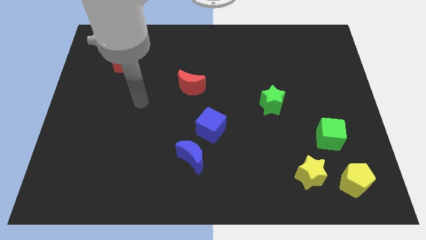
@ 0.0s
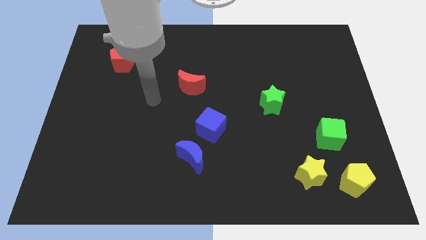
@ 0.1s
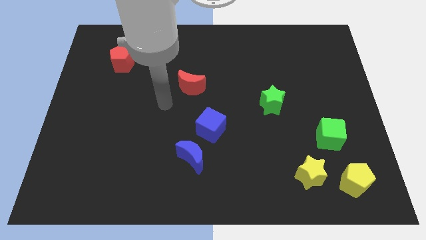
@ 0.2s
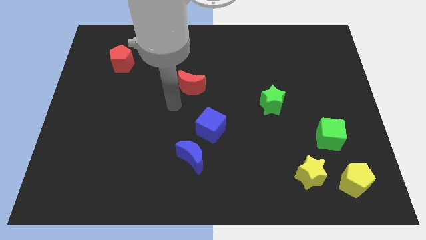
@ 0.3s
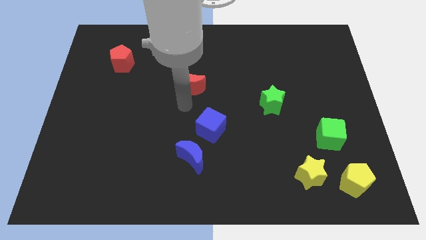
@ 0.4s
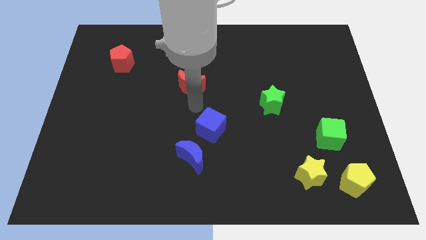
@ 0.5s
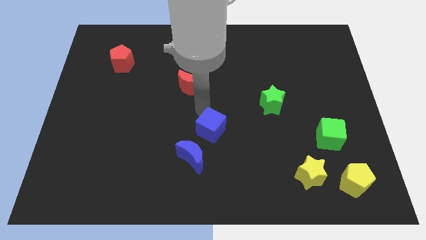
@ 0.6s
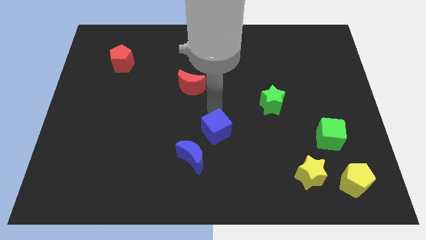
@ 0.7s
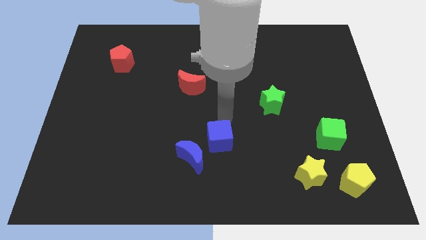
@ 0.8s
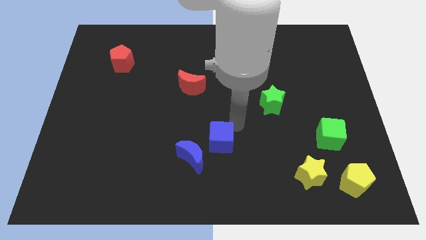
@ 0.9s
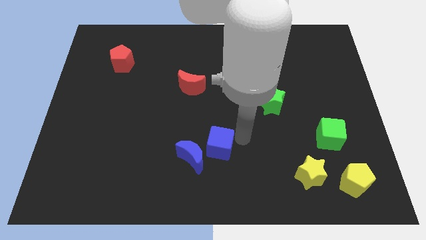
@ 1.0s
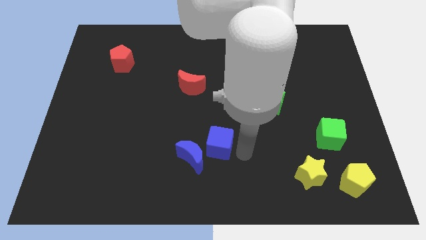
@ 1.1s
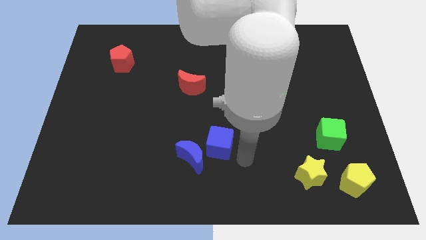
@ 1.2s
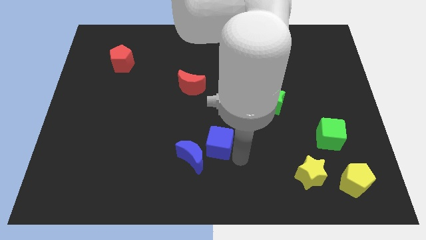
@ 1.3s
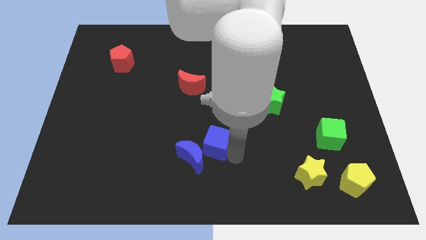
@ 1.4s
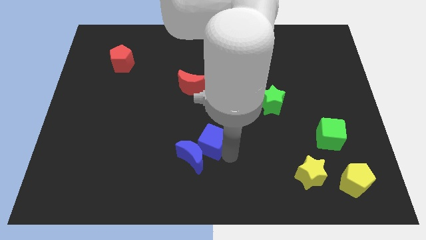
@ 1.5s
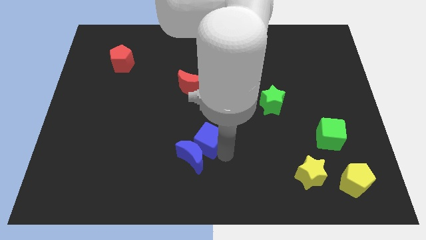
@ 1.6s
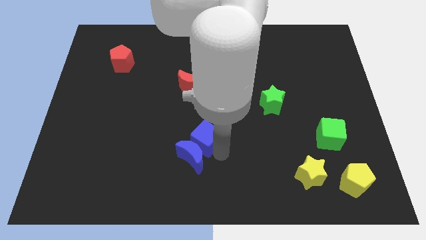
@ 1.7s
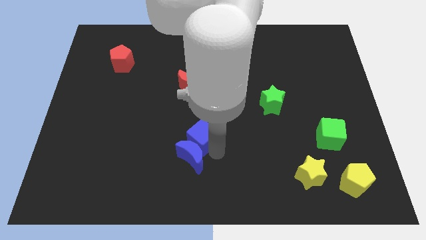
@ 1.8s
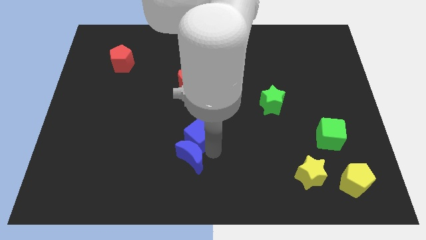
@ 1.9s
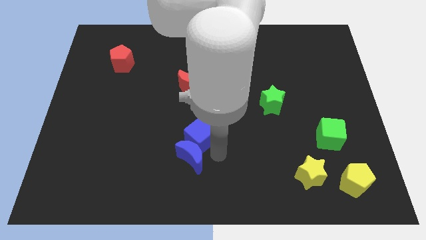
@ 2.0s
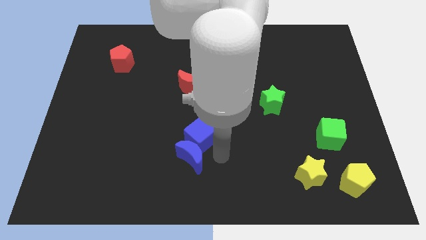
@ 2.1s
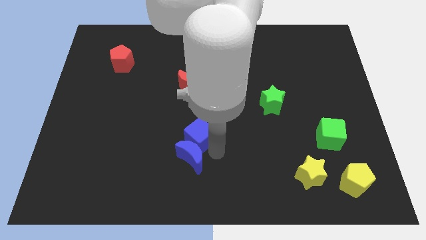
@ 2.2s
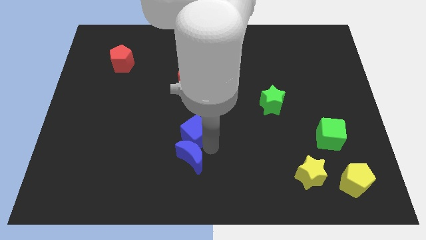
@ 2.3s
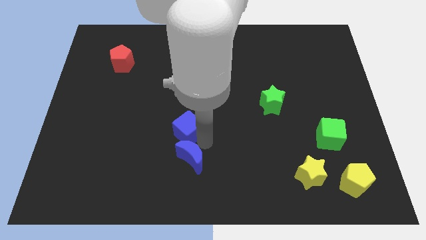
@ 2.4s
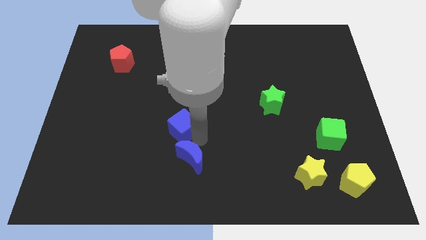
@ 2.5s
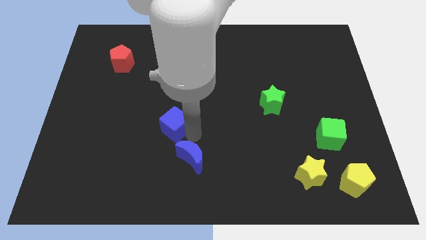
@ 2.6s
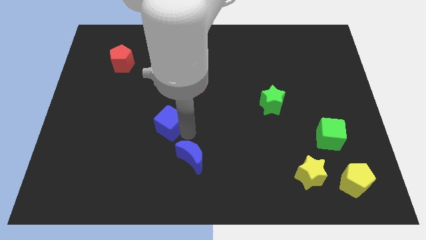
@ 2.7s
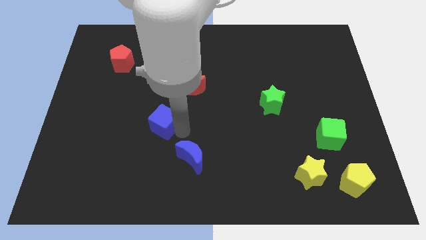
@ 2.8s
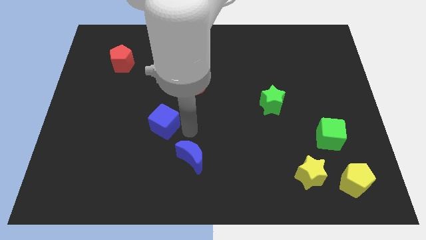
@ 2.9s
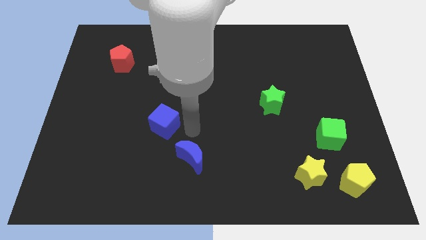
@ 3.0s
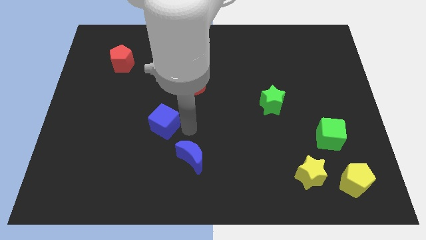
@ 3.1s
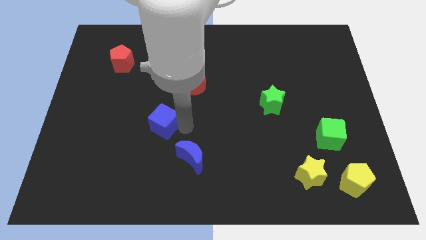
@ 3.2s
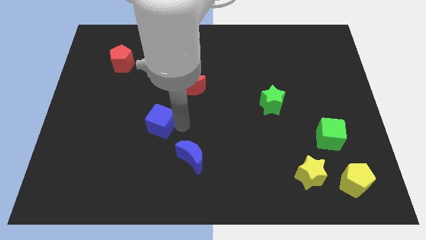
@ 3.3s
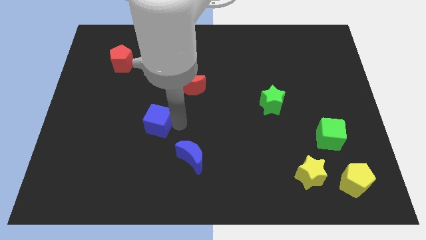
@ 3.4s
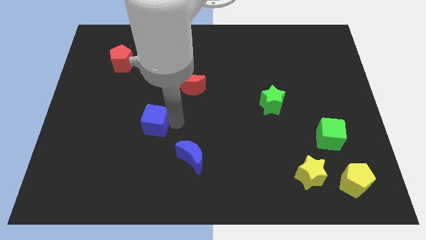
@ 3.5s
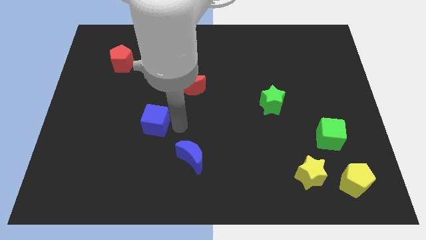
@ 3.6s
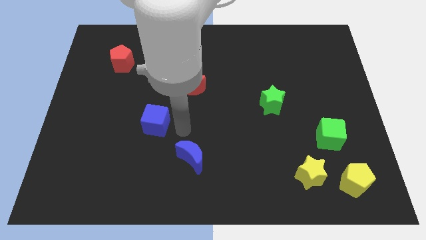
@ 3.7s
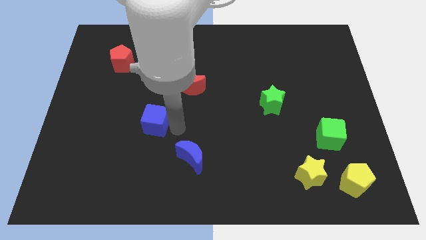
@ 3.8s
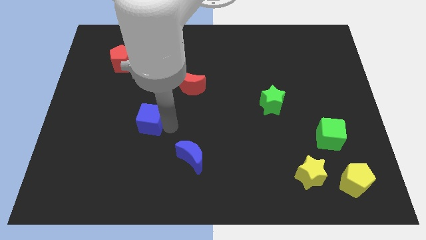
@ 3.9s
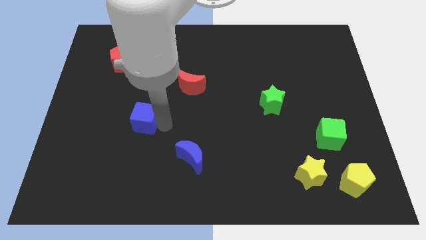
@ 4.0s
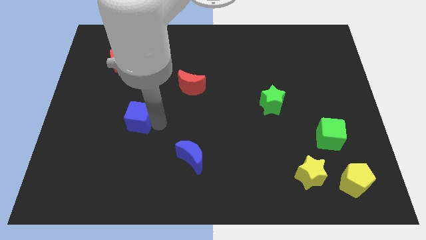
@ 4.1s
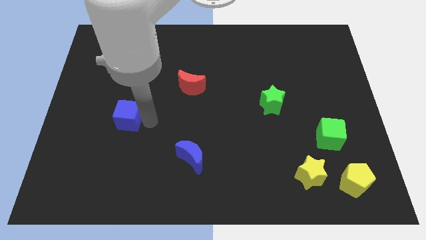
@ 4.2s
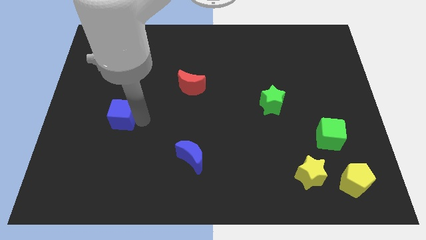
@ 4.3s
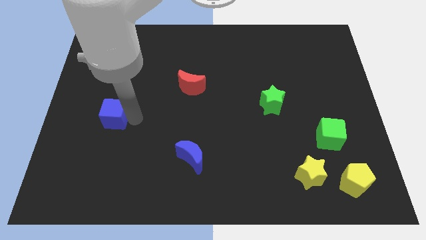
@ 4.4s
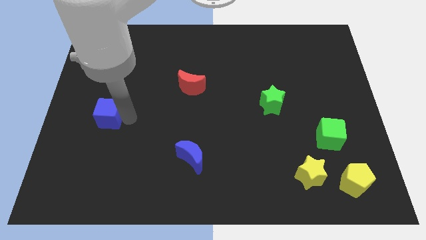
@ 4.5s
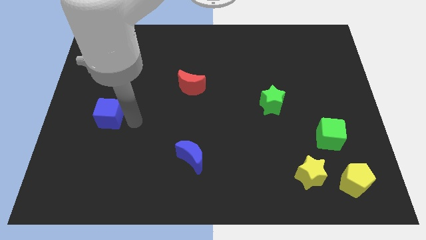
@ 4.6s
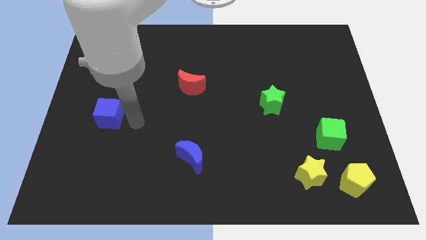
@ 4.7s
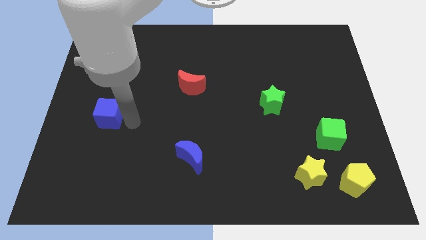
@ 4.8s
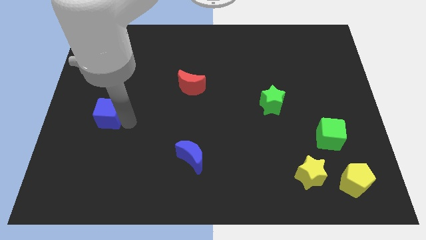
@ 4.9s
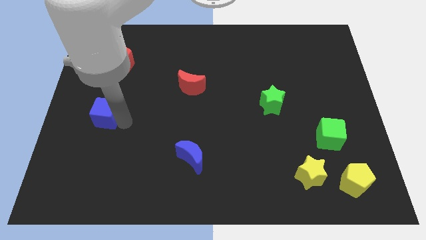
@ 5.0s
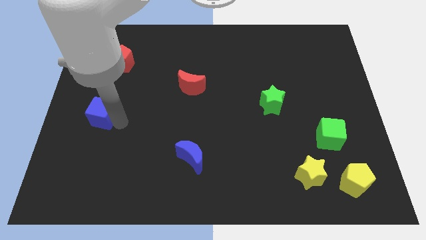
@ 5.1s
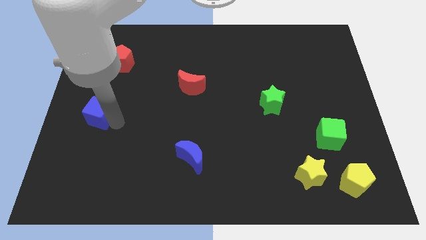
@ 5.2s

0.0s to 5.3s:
slide the blue cube to the left side
